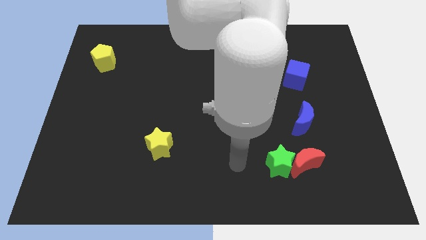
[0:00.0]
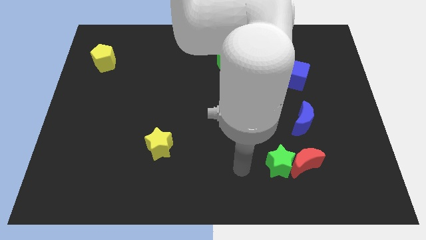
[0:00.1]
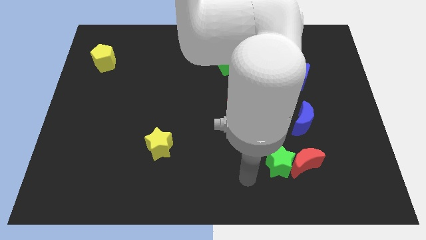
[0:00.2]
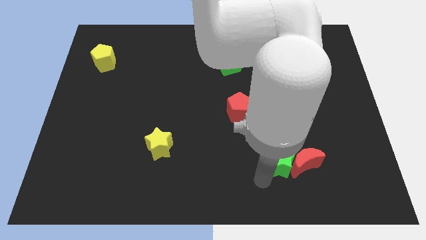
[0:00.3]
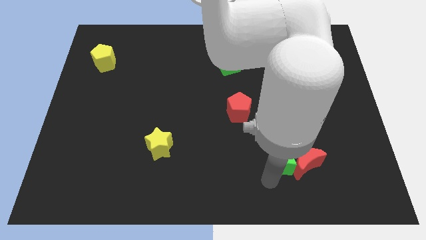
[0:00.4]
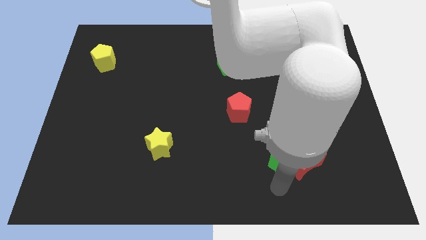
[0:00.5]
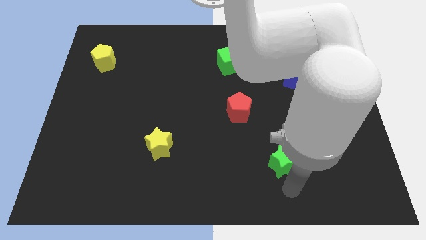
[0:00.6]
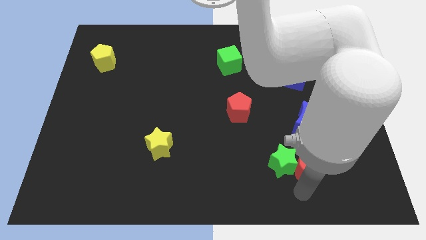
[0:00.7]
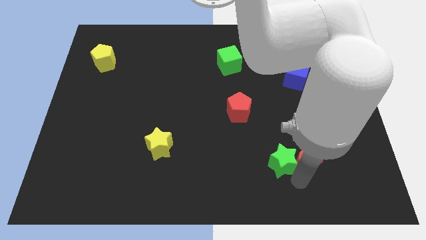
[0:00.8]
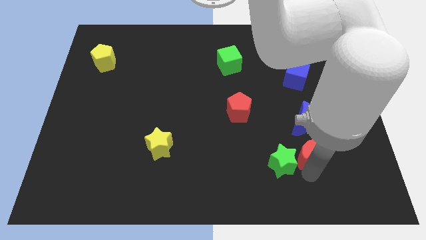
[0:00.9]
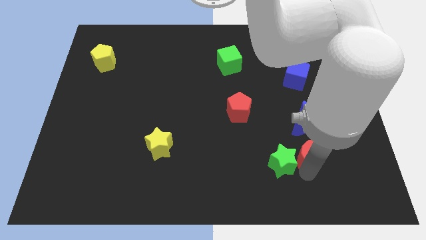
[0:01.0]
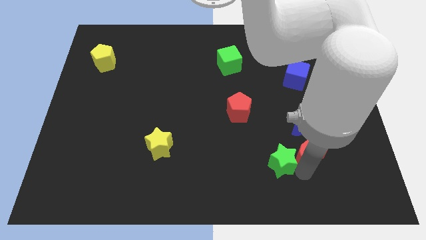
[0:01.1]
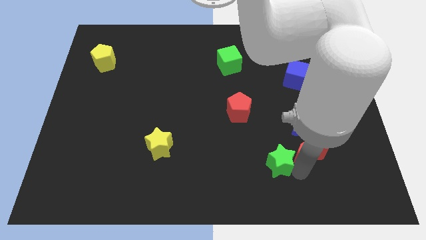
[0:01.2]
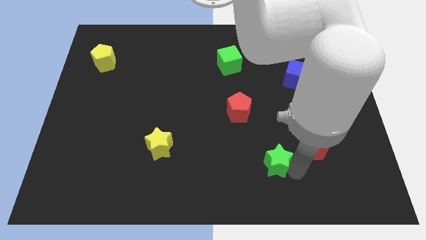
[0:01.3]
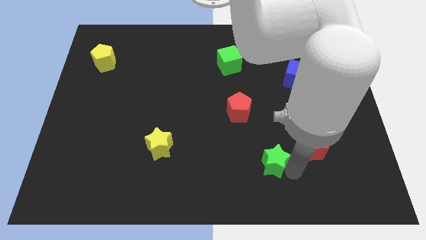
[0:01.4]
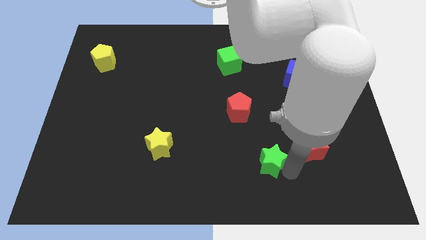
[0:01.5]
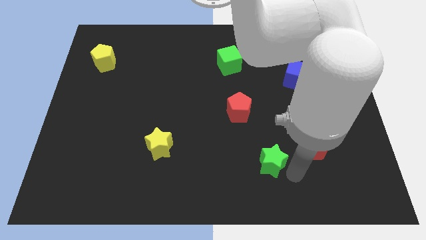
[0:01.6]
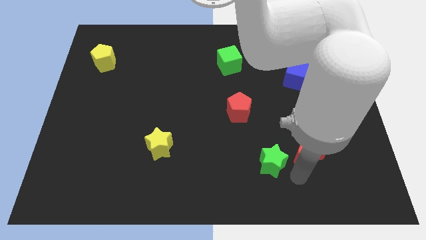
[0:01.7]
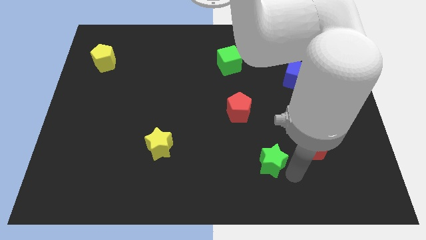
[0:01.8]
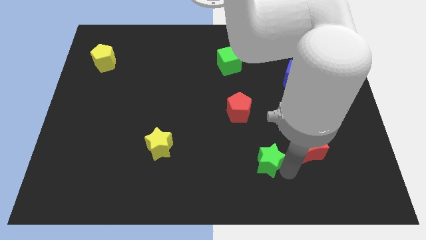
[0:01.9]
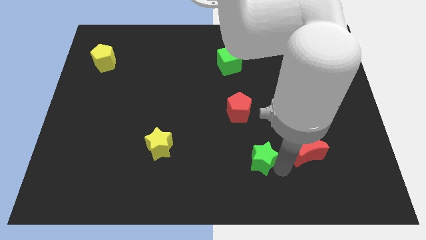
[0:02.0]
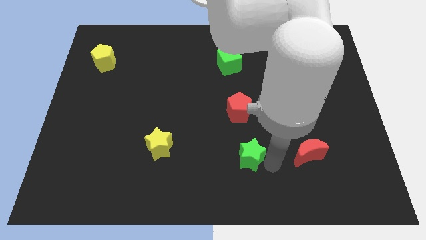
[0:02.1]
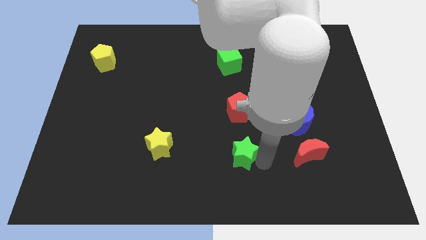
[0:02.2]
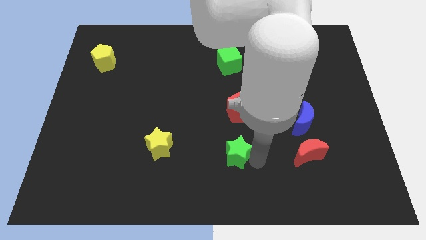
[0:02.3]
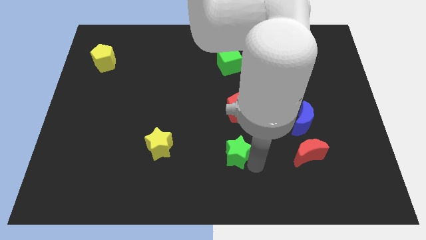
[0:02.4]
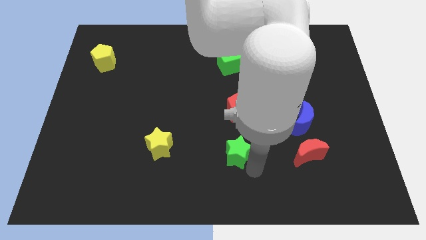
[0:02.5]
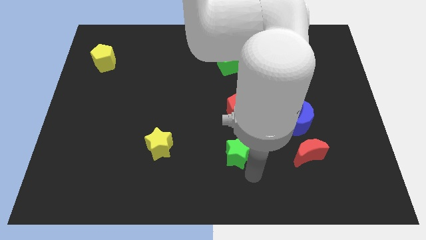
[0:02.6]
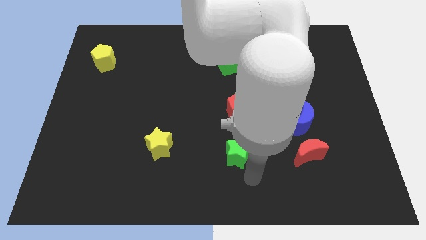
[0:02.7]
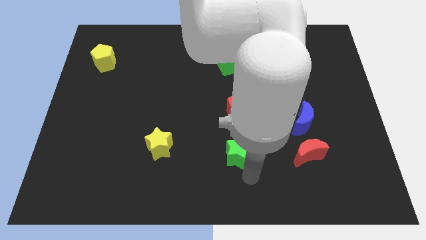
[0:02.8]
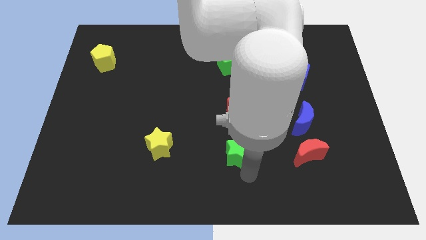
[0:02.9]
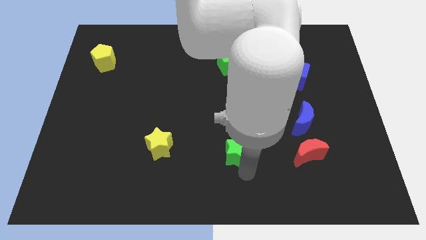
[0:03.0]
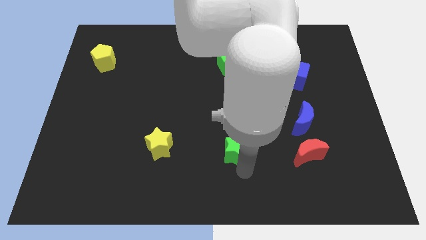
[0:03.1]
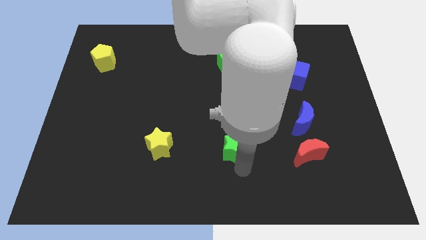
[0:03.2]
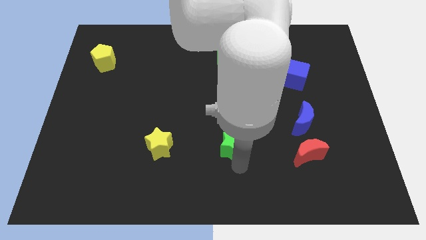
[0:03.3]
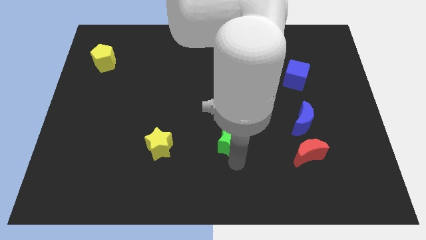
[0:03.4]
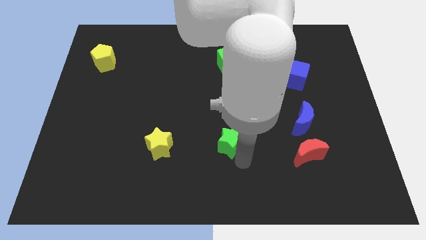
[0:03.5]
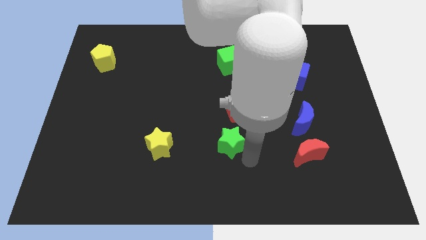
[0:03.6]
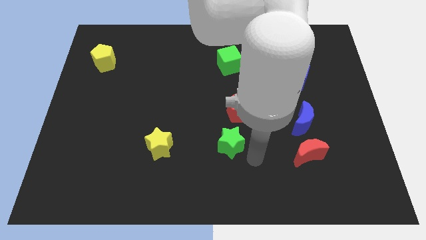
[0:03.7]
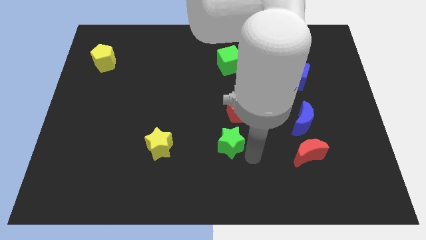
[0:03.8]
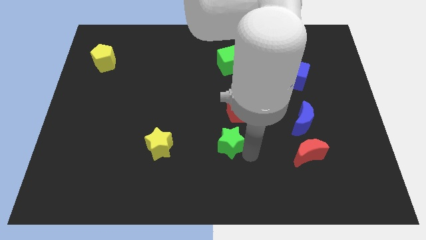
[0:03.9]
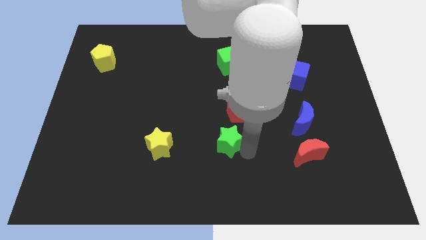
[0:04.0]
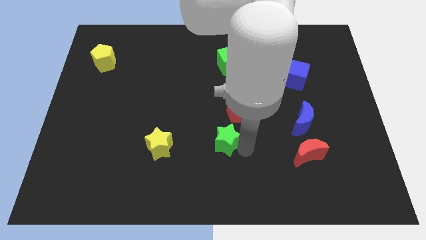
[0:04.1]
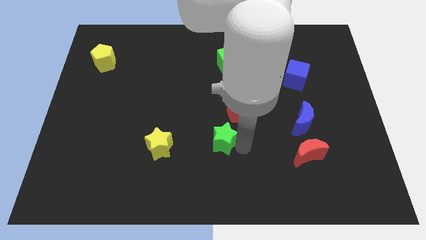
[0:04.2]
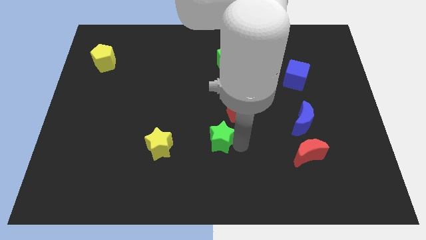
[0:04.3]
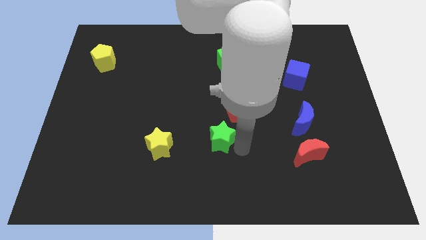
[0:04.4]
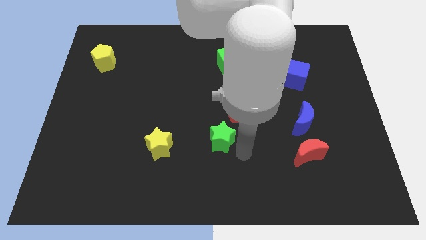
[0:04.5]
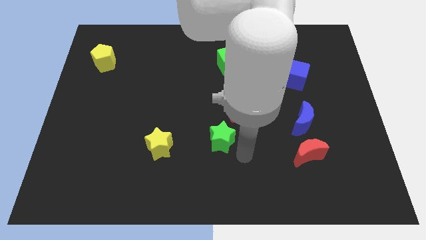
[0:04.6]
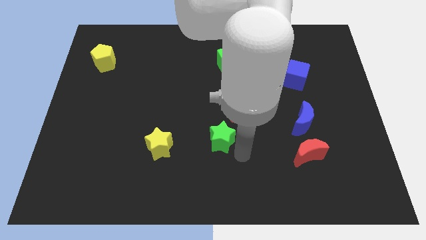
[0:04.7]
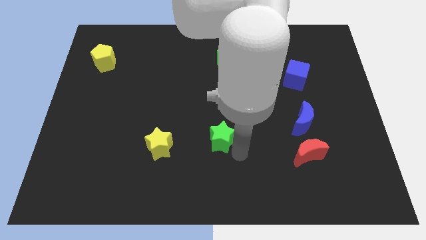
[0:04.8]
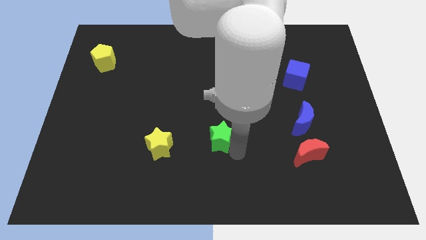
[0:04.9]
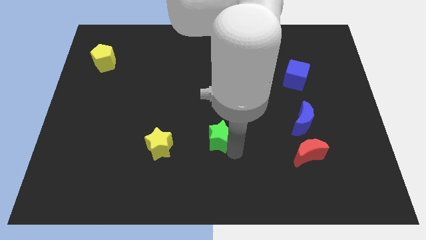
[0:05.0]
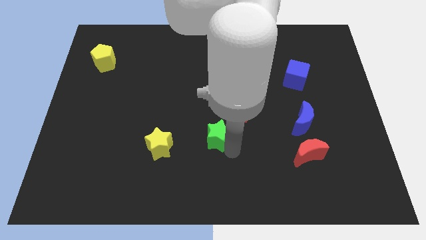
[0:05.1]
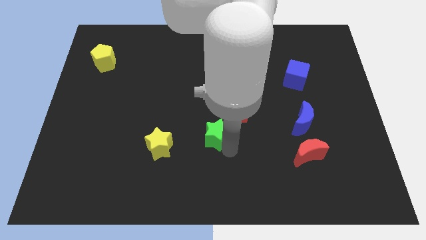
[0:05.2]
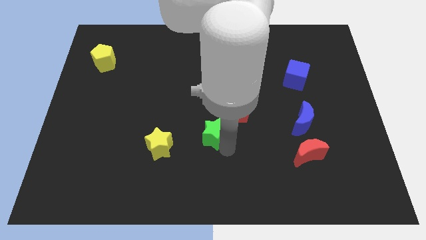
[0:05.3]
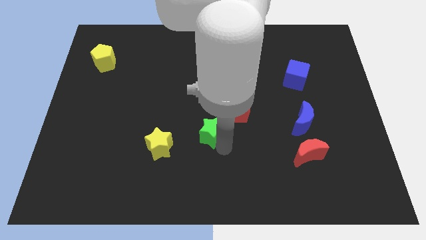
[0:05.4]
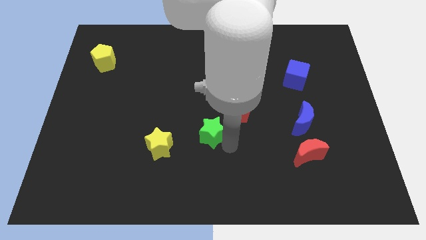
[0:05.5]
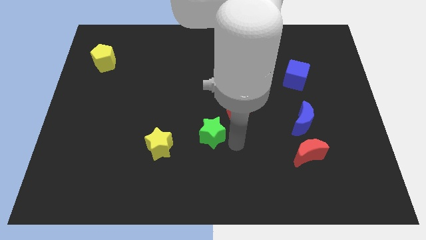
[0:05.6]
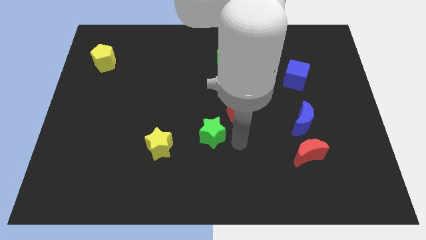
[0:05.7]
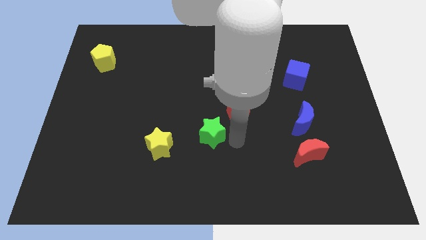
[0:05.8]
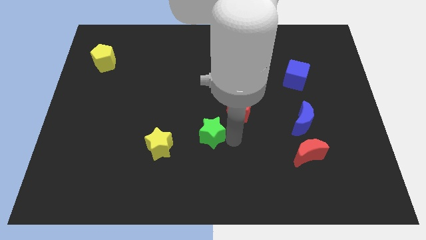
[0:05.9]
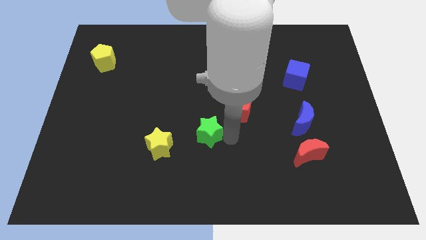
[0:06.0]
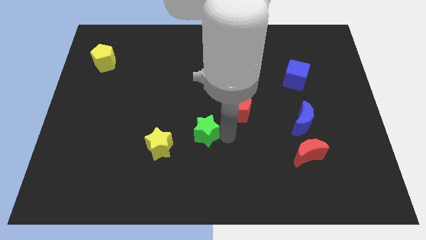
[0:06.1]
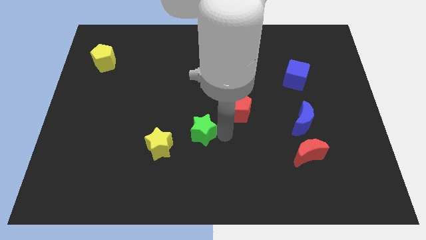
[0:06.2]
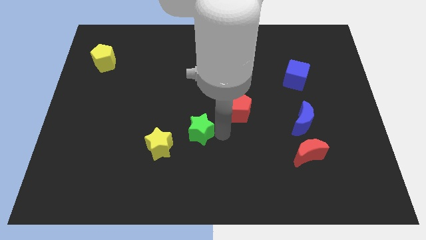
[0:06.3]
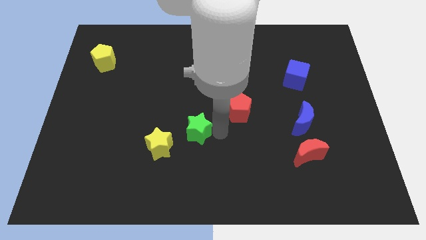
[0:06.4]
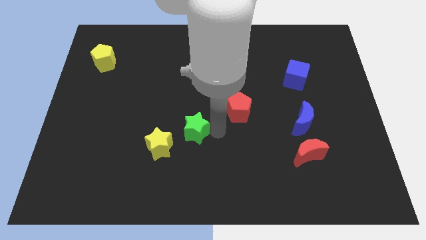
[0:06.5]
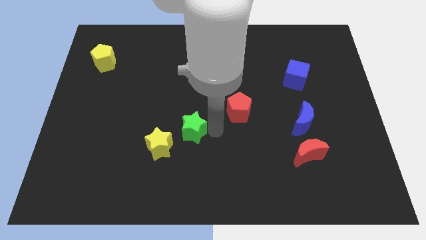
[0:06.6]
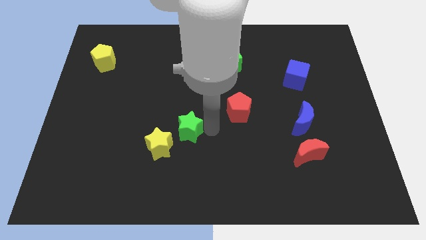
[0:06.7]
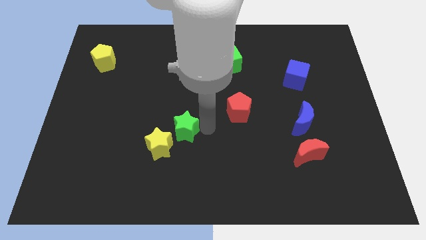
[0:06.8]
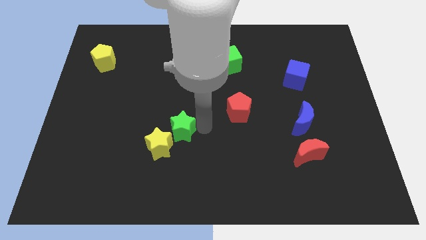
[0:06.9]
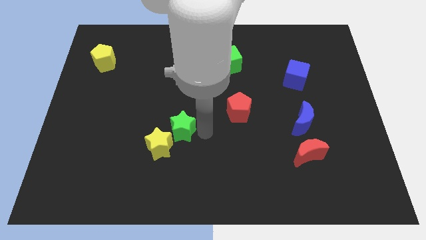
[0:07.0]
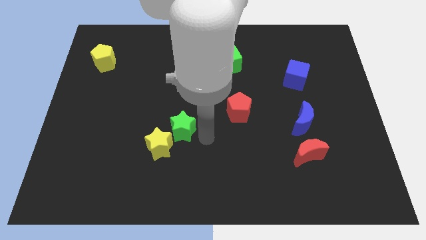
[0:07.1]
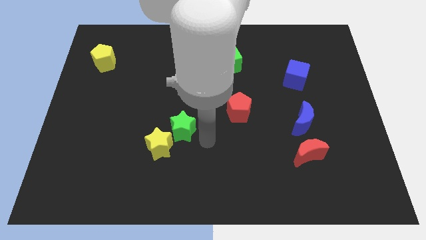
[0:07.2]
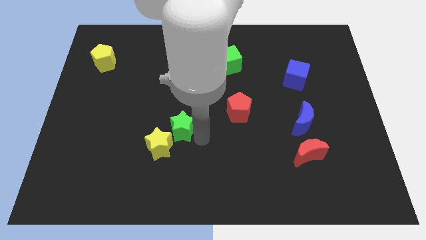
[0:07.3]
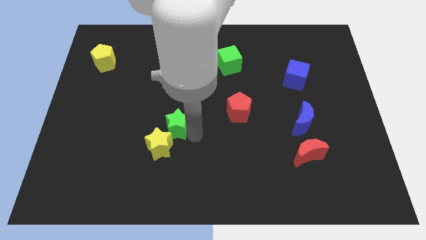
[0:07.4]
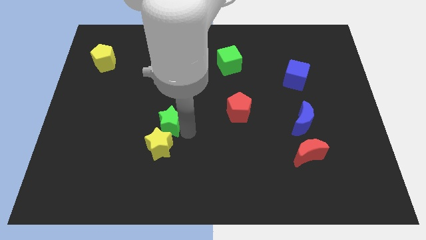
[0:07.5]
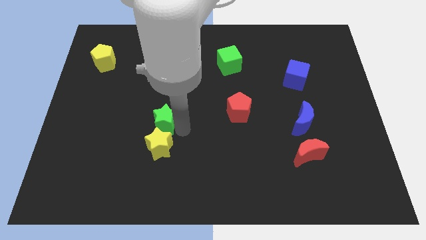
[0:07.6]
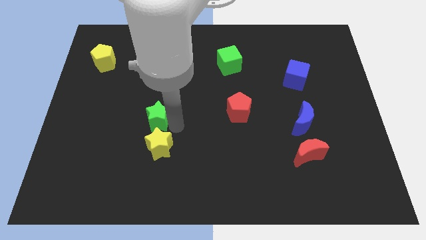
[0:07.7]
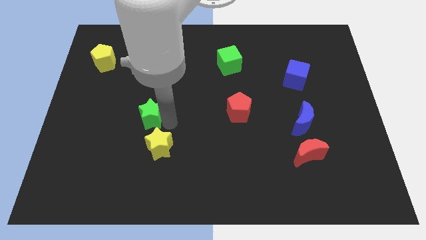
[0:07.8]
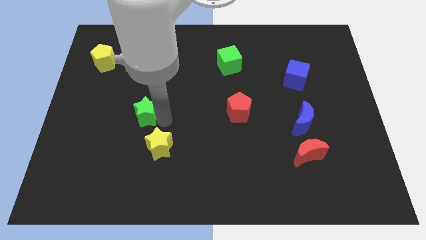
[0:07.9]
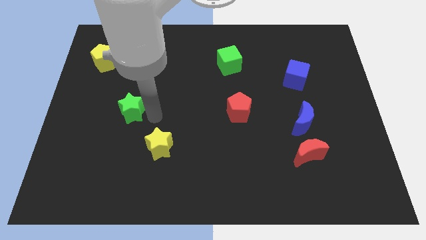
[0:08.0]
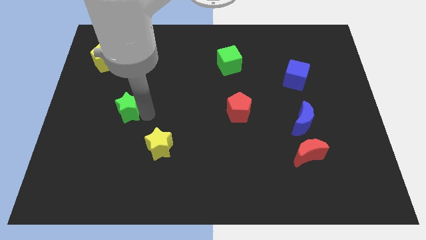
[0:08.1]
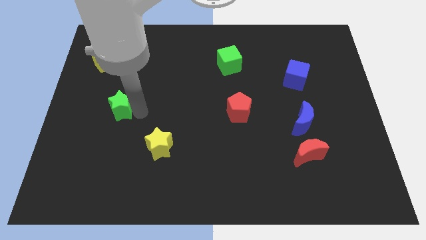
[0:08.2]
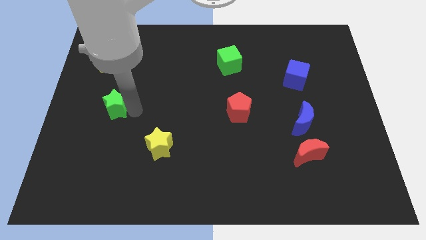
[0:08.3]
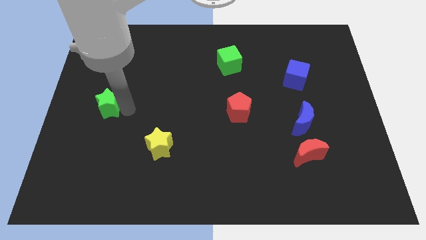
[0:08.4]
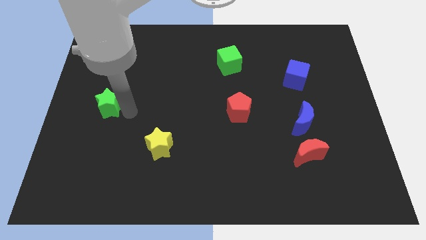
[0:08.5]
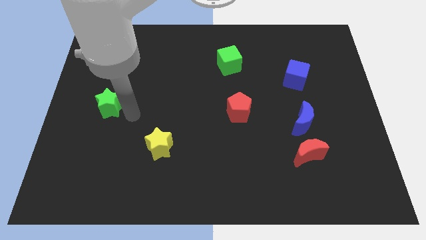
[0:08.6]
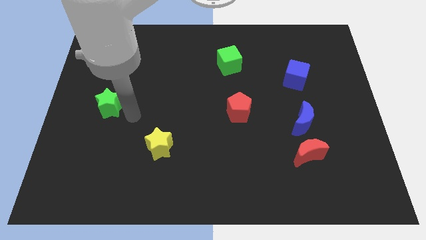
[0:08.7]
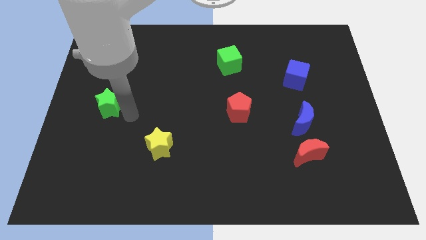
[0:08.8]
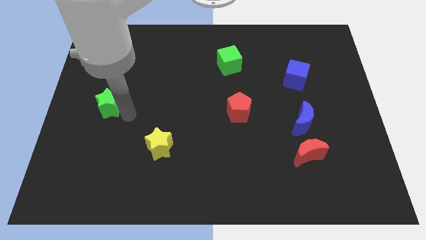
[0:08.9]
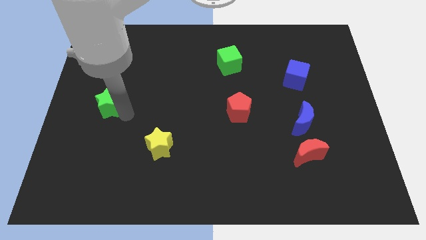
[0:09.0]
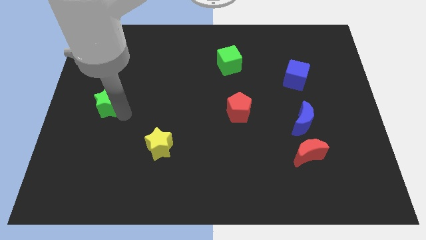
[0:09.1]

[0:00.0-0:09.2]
move the green star to the center left
